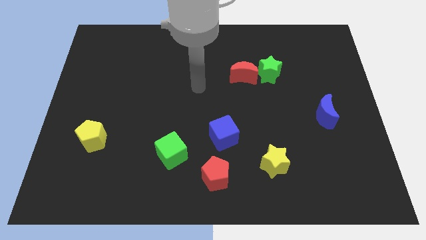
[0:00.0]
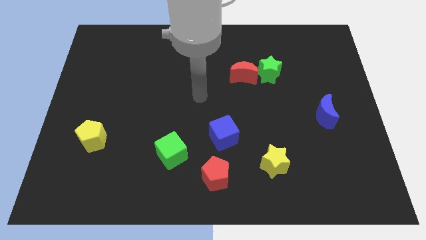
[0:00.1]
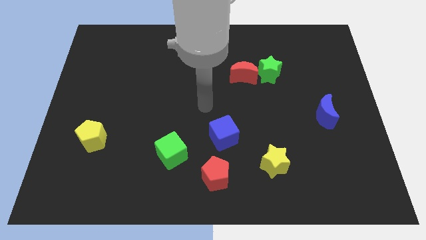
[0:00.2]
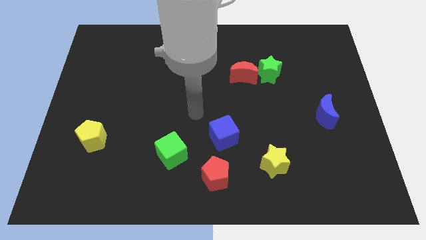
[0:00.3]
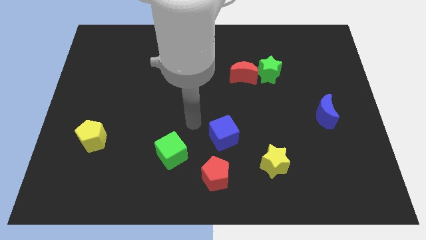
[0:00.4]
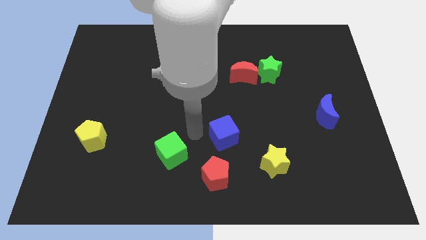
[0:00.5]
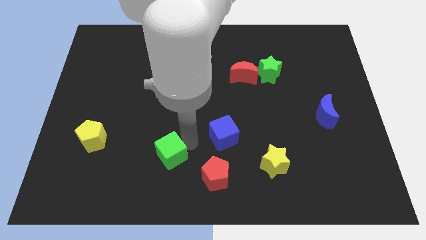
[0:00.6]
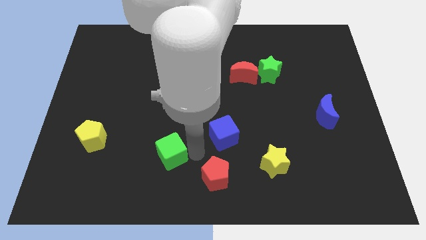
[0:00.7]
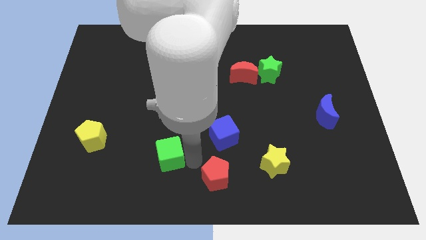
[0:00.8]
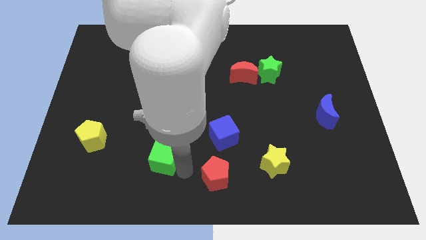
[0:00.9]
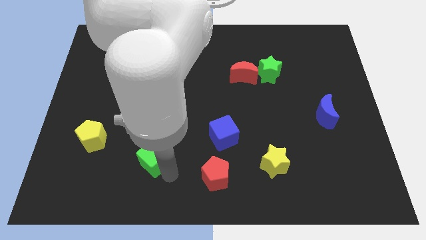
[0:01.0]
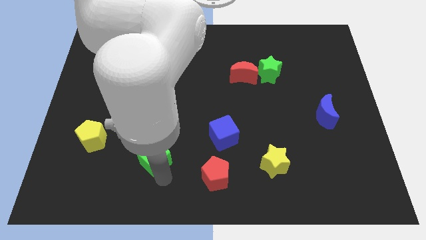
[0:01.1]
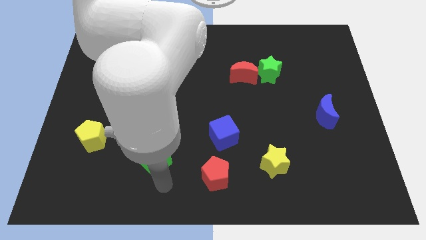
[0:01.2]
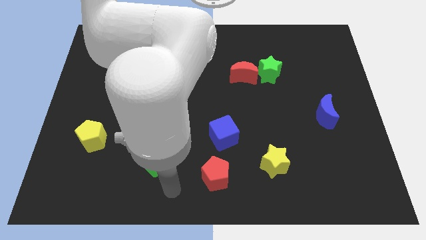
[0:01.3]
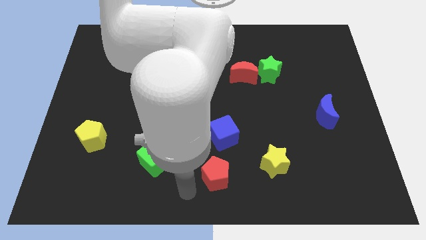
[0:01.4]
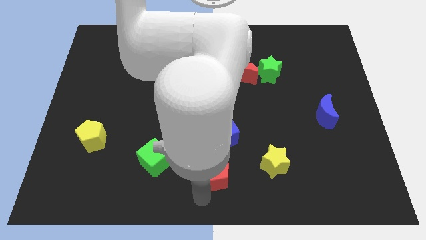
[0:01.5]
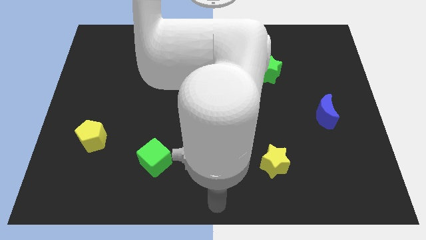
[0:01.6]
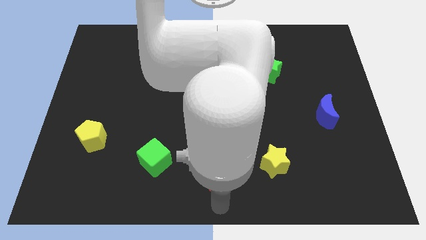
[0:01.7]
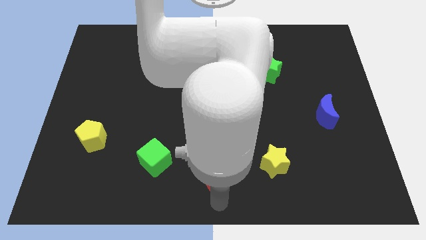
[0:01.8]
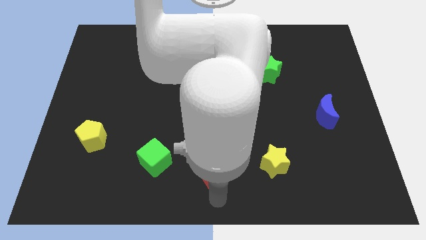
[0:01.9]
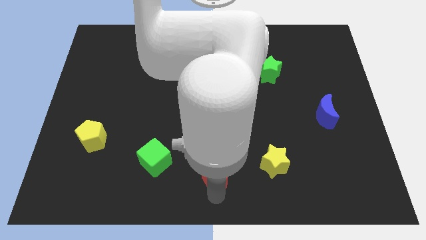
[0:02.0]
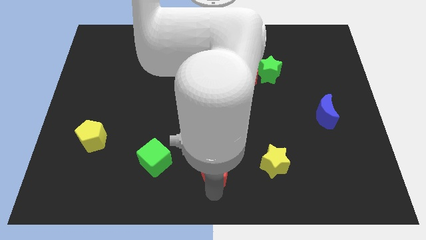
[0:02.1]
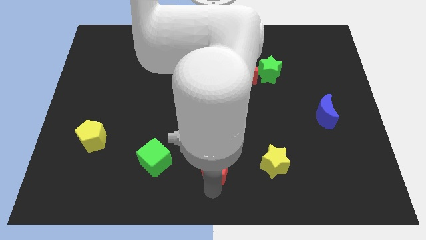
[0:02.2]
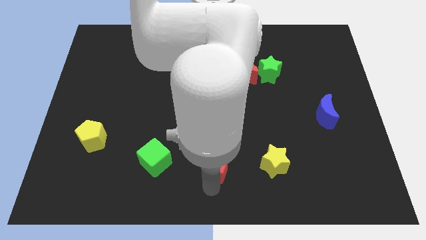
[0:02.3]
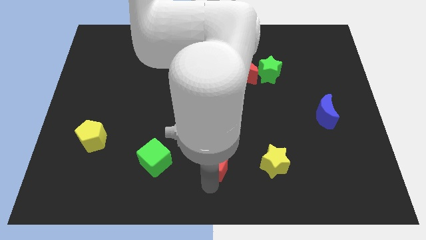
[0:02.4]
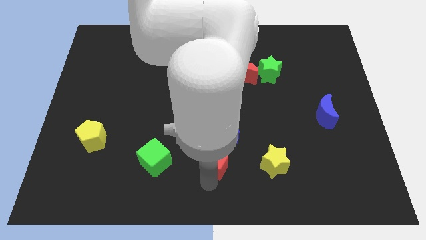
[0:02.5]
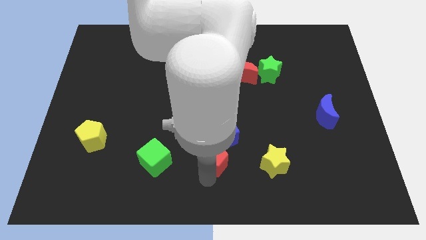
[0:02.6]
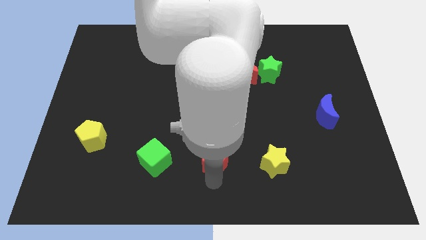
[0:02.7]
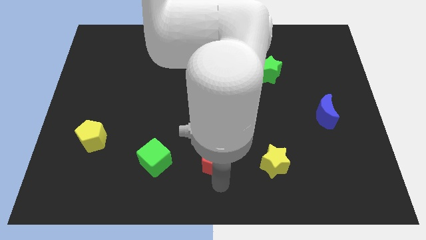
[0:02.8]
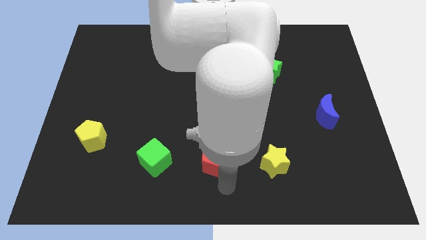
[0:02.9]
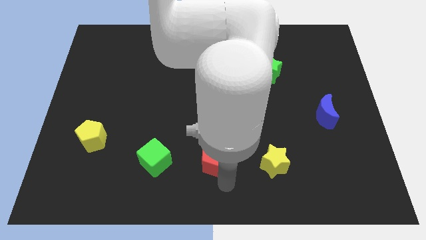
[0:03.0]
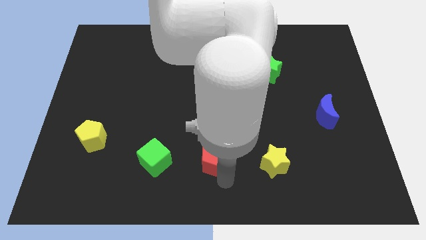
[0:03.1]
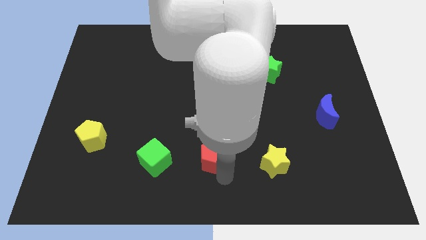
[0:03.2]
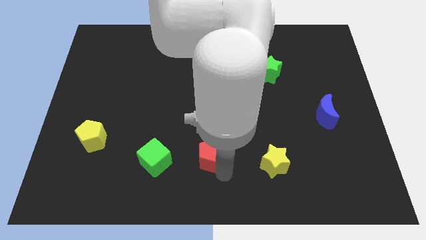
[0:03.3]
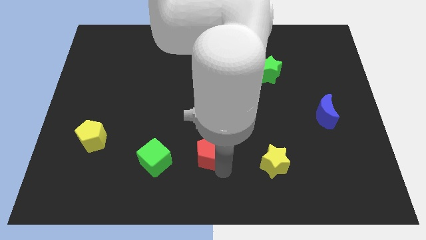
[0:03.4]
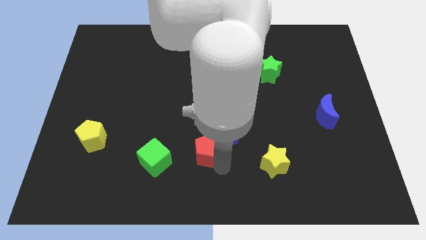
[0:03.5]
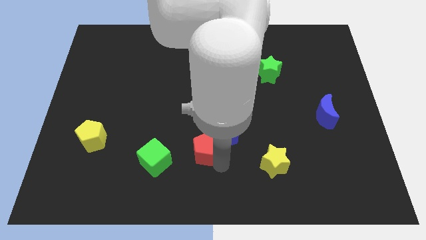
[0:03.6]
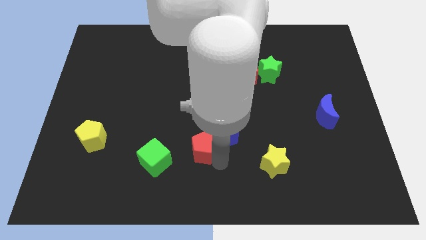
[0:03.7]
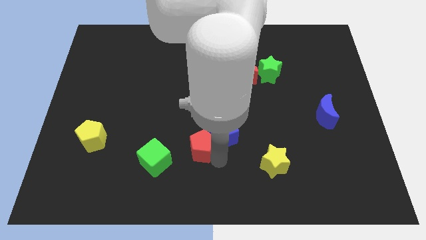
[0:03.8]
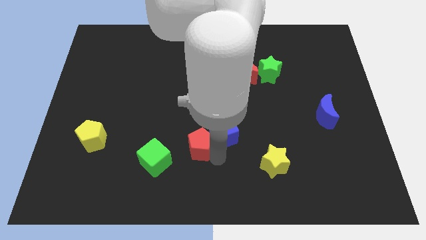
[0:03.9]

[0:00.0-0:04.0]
move the red pentagon a little up

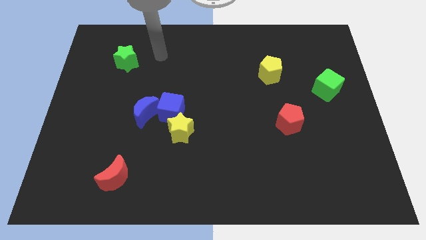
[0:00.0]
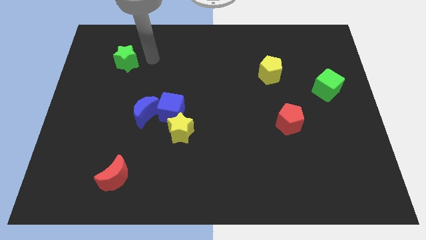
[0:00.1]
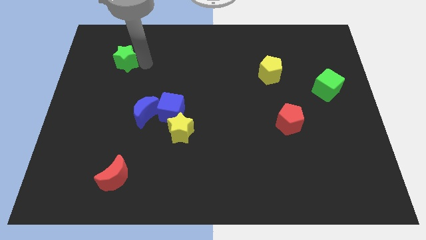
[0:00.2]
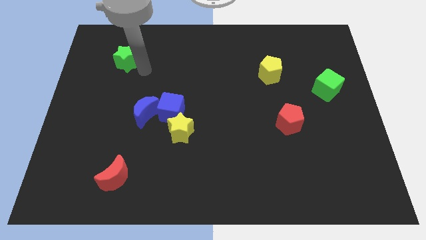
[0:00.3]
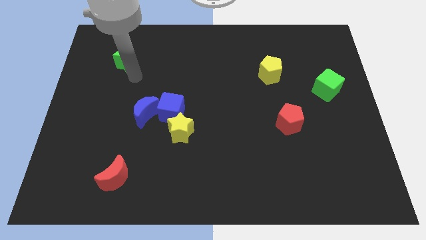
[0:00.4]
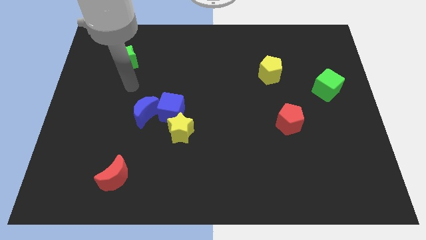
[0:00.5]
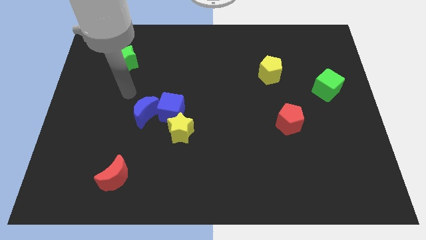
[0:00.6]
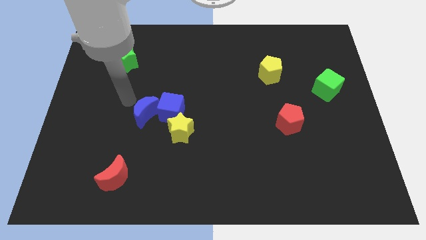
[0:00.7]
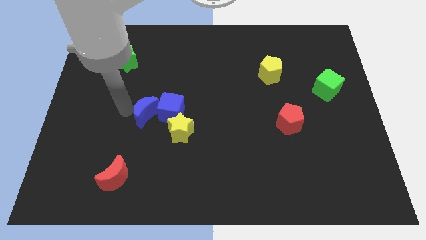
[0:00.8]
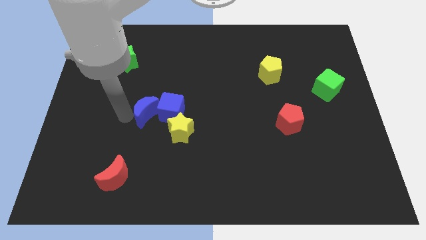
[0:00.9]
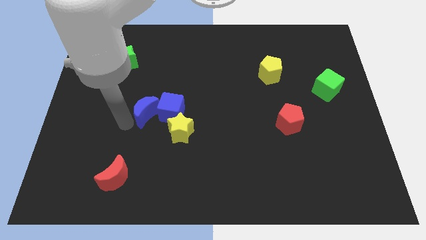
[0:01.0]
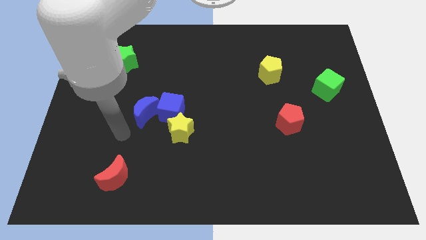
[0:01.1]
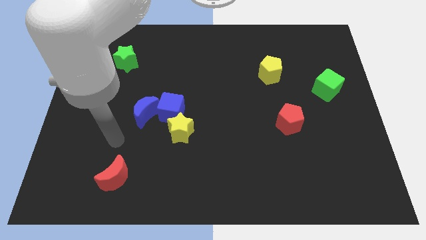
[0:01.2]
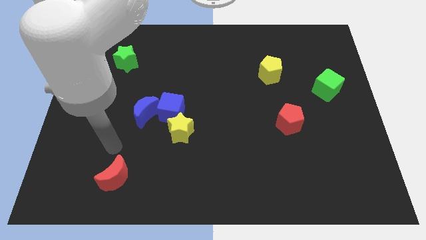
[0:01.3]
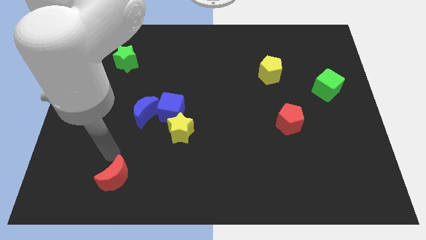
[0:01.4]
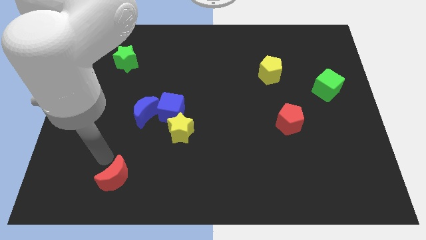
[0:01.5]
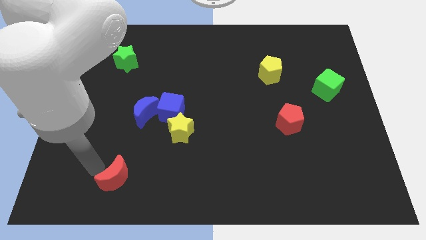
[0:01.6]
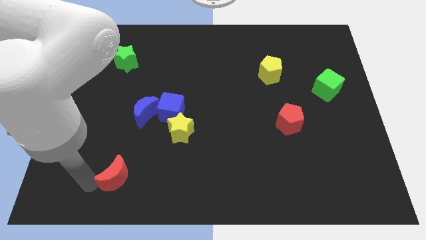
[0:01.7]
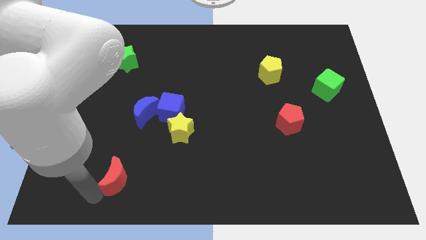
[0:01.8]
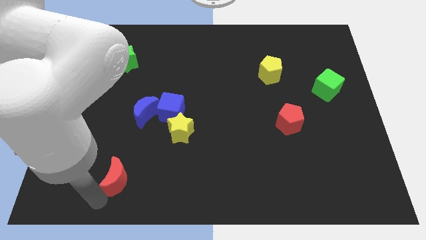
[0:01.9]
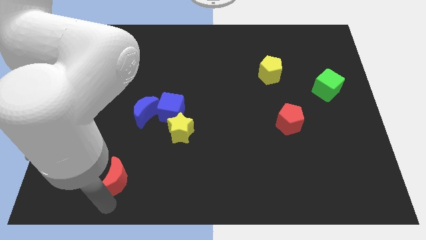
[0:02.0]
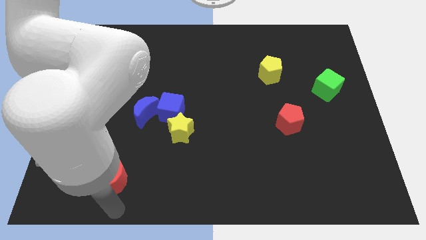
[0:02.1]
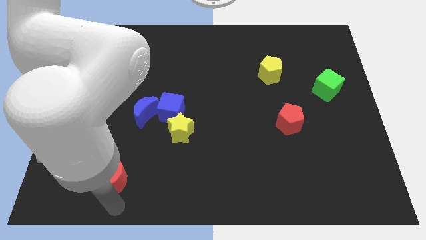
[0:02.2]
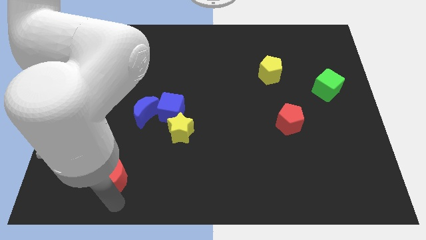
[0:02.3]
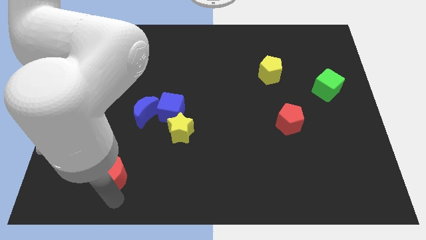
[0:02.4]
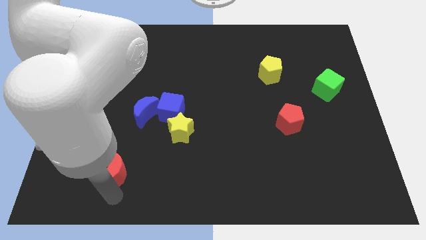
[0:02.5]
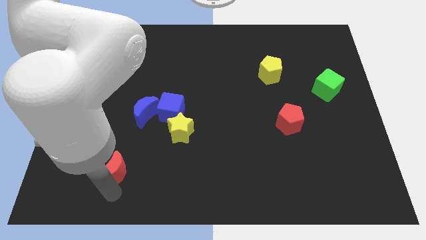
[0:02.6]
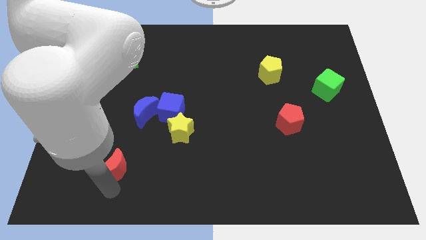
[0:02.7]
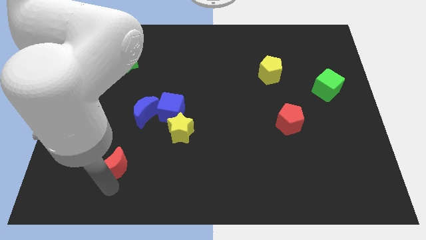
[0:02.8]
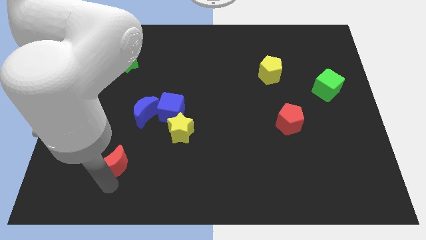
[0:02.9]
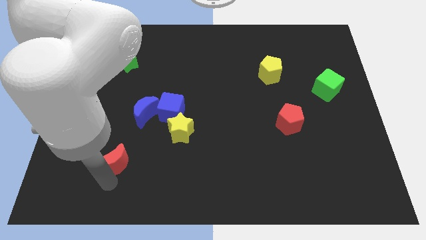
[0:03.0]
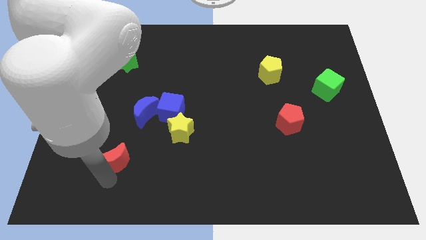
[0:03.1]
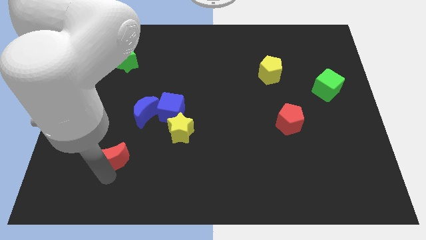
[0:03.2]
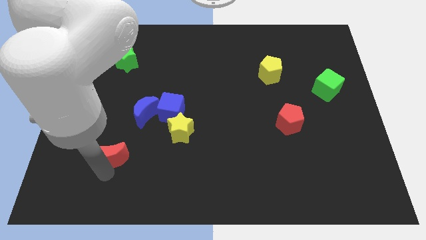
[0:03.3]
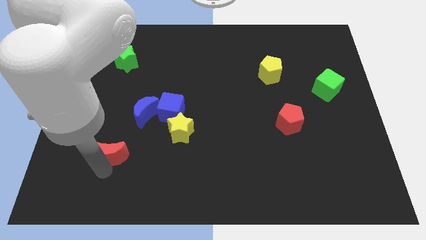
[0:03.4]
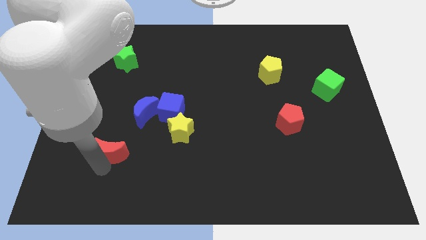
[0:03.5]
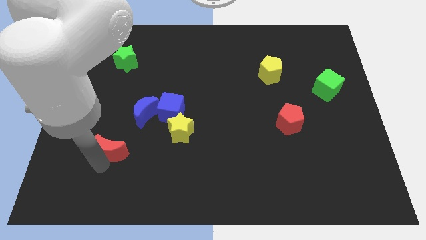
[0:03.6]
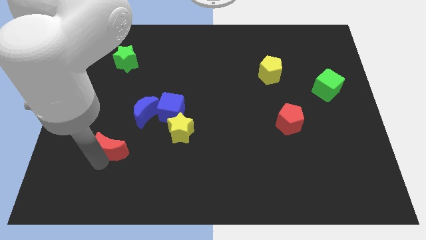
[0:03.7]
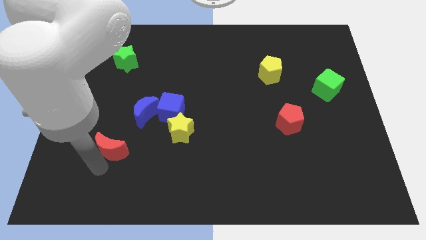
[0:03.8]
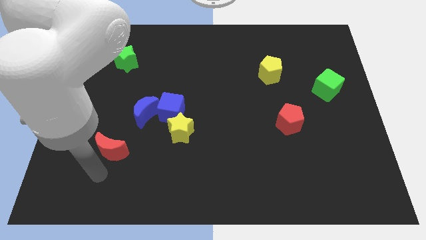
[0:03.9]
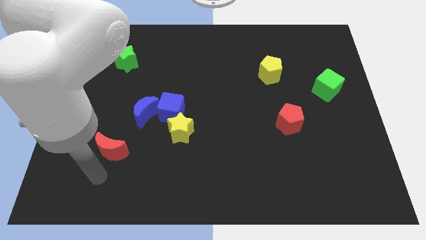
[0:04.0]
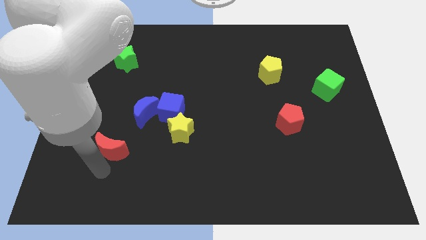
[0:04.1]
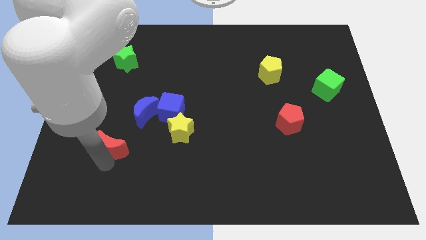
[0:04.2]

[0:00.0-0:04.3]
move the red moon somewhat upwards
